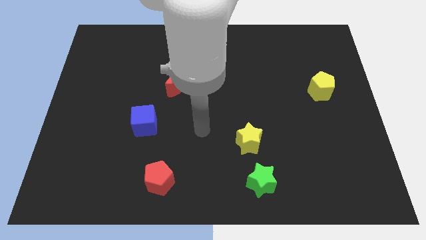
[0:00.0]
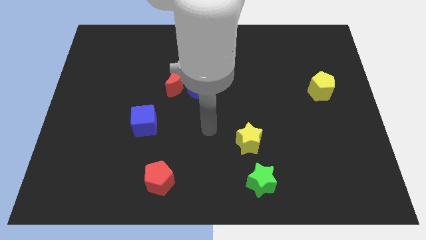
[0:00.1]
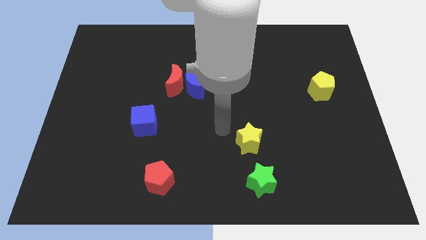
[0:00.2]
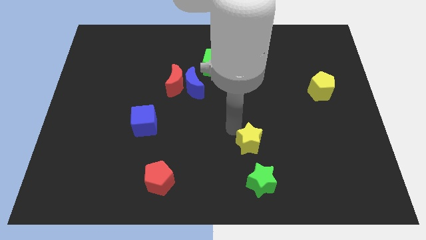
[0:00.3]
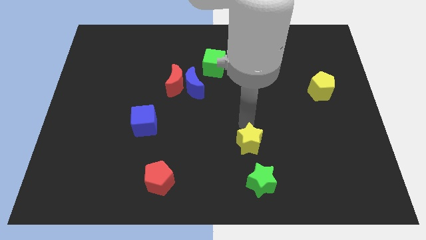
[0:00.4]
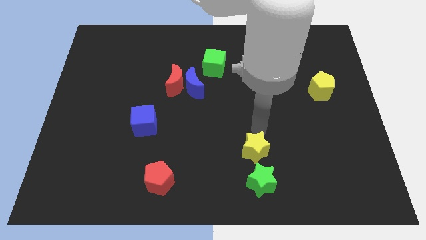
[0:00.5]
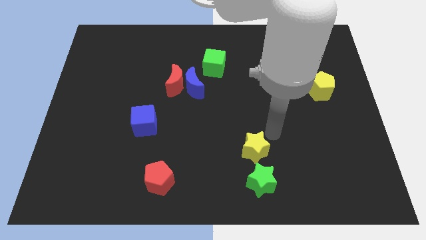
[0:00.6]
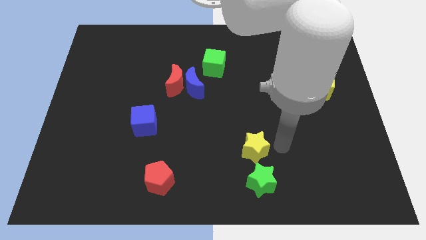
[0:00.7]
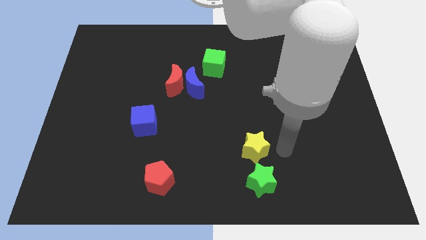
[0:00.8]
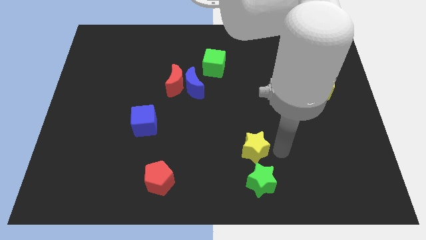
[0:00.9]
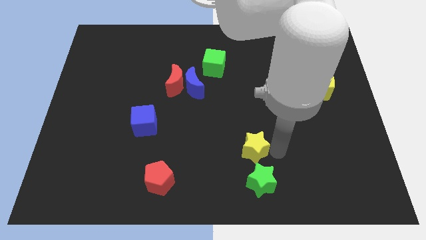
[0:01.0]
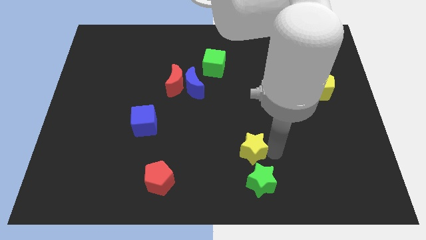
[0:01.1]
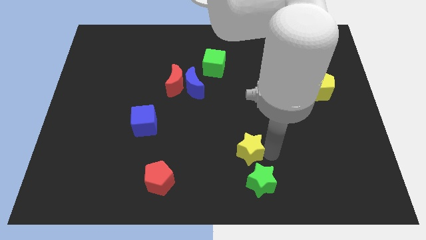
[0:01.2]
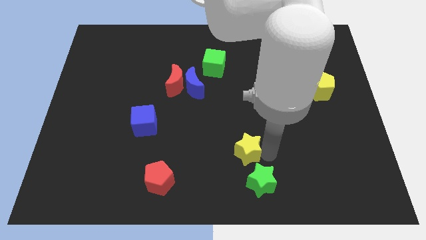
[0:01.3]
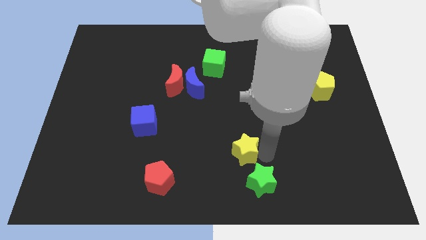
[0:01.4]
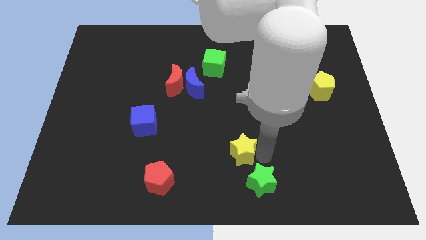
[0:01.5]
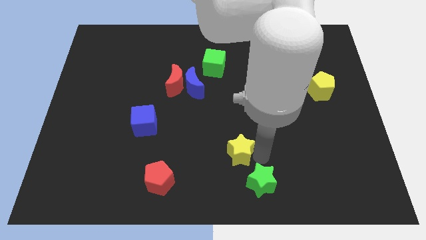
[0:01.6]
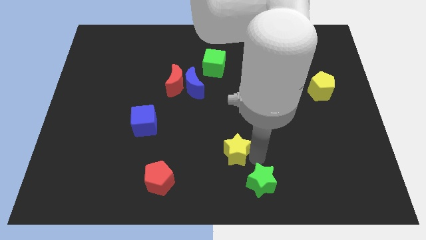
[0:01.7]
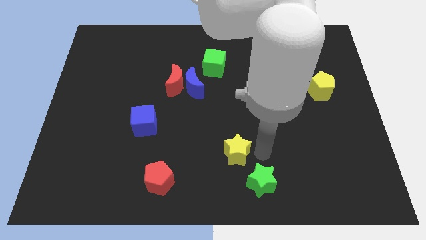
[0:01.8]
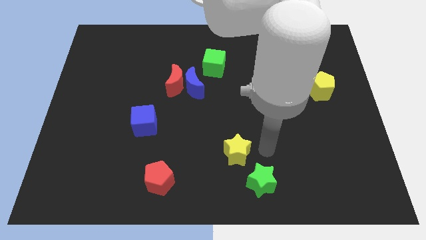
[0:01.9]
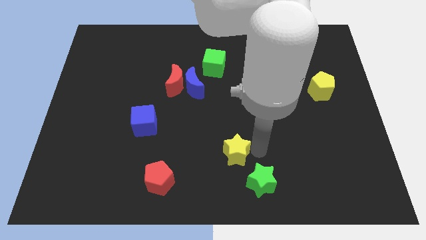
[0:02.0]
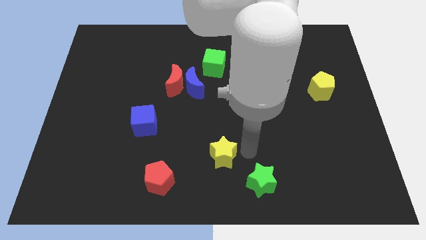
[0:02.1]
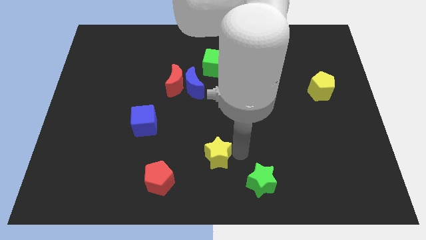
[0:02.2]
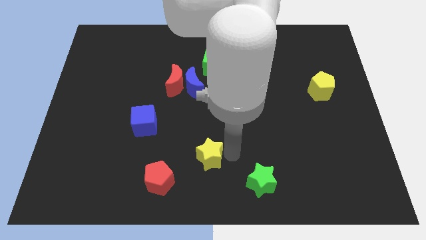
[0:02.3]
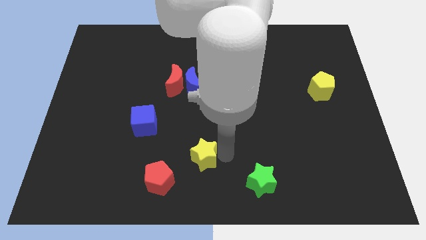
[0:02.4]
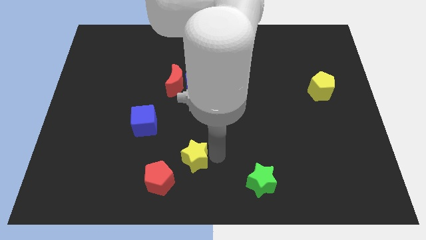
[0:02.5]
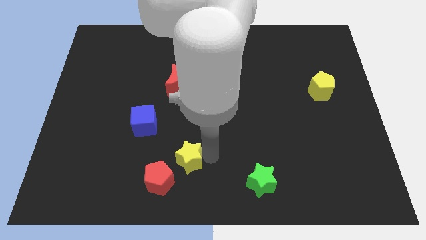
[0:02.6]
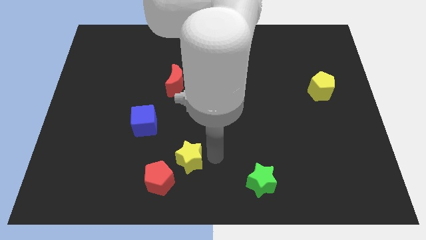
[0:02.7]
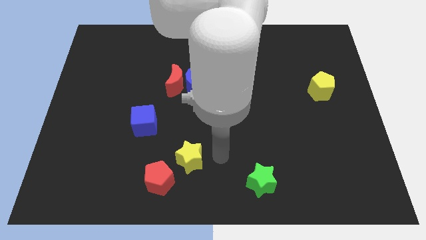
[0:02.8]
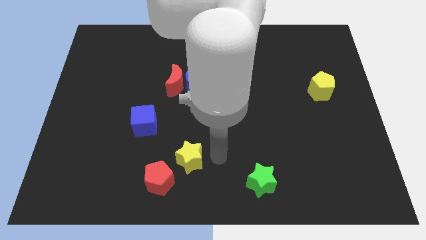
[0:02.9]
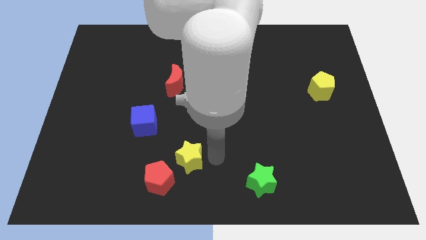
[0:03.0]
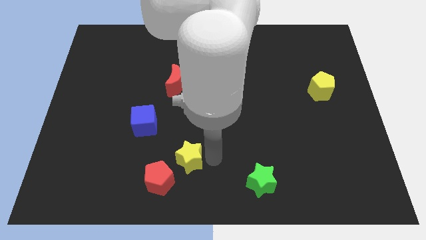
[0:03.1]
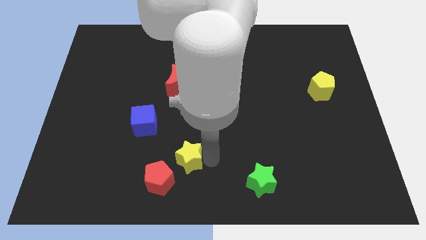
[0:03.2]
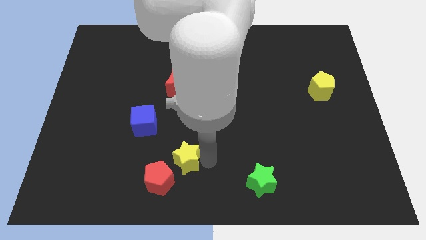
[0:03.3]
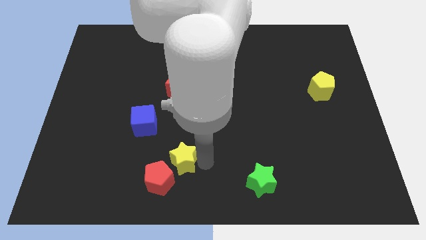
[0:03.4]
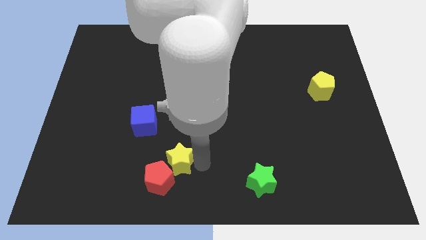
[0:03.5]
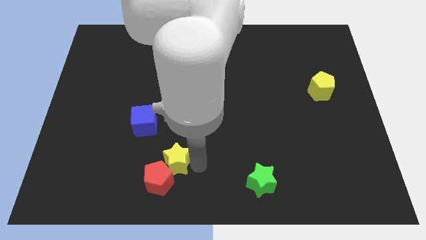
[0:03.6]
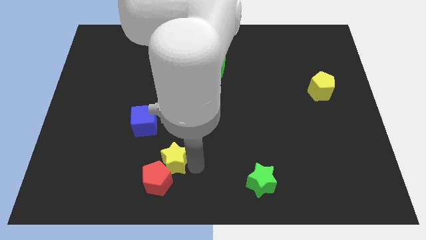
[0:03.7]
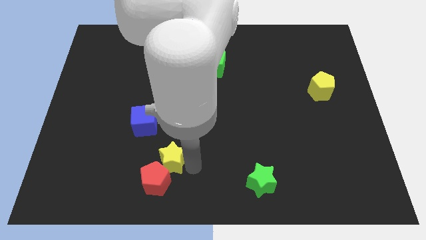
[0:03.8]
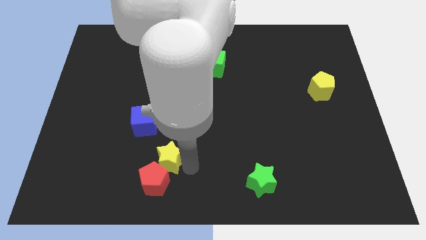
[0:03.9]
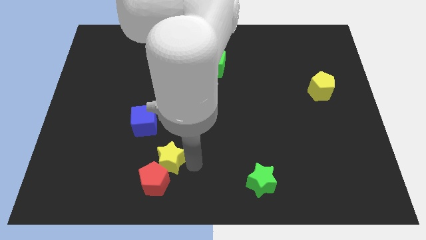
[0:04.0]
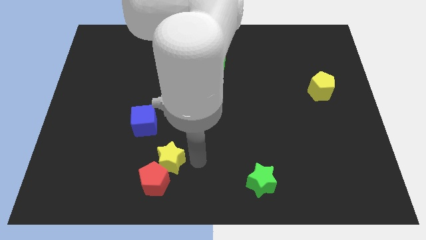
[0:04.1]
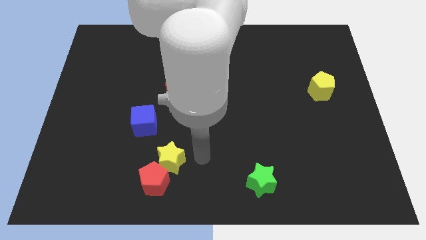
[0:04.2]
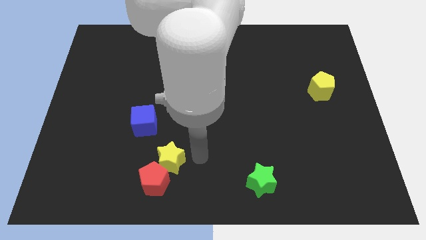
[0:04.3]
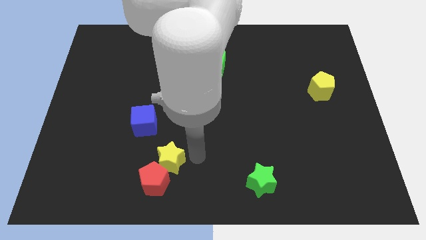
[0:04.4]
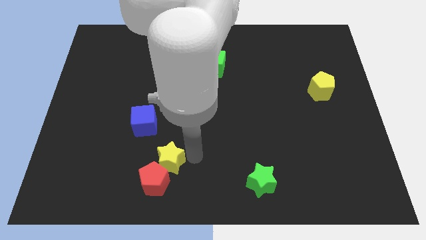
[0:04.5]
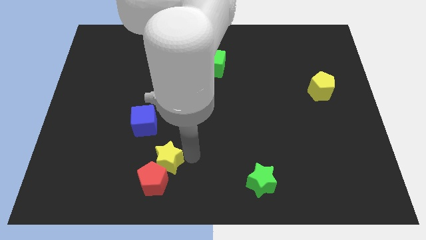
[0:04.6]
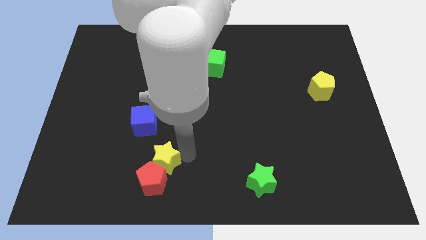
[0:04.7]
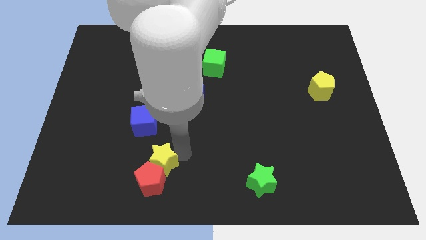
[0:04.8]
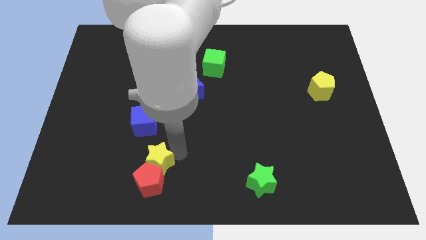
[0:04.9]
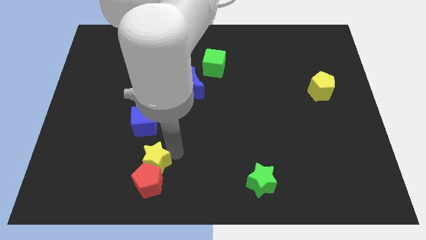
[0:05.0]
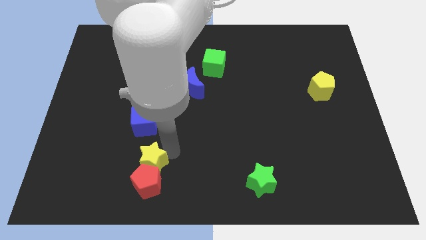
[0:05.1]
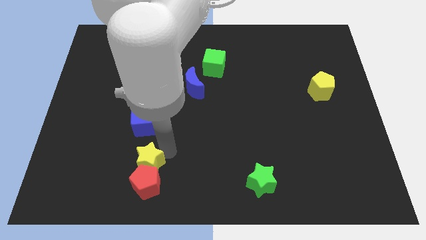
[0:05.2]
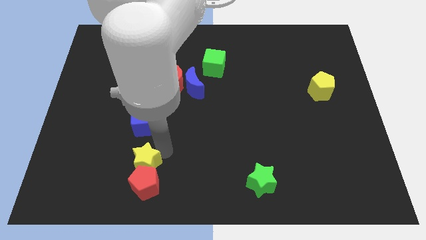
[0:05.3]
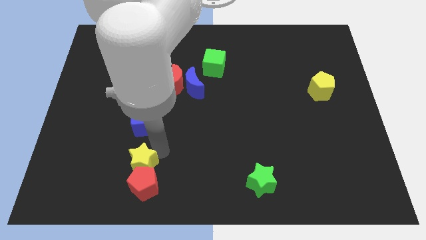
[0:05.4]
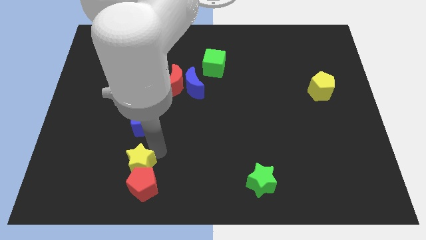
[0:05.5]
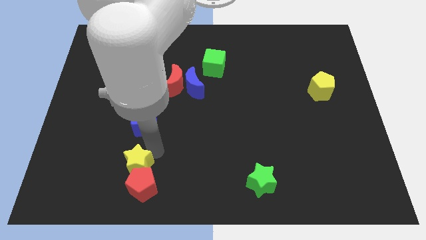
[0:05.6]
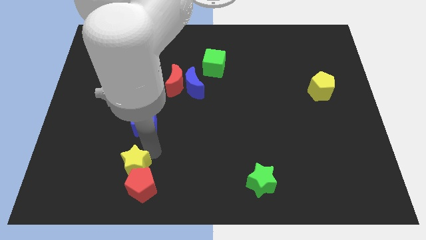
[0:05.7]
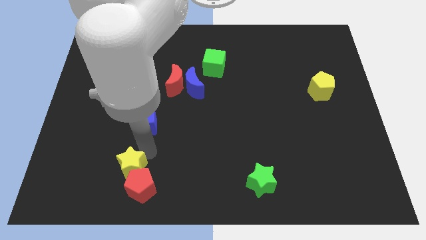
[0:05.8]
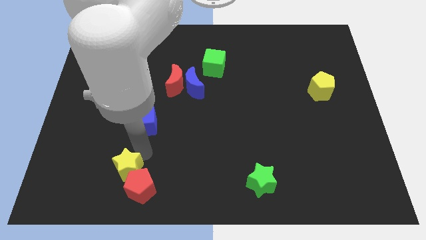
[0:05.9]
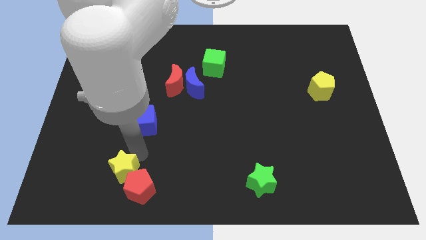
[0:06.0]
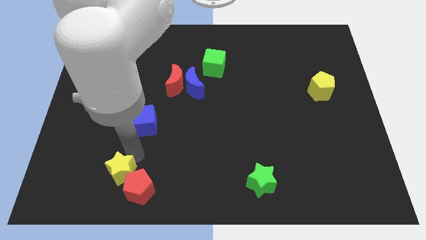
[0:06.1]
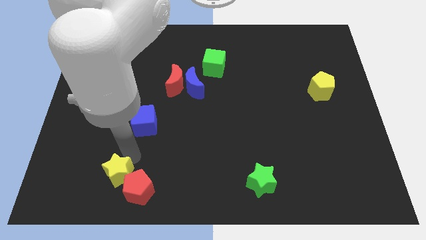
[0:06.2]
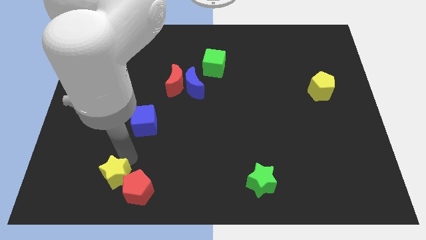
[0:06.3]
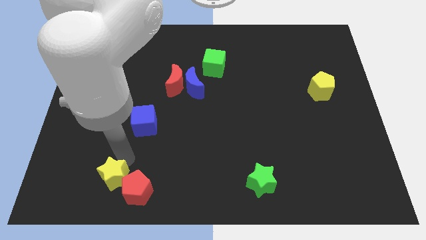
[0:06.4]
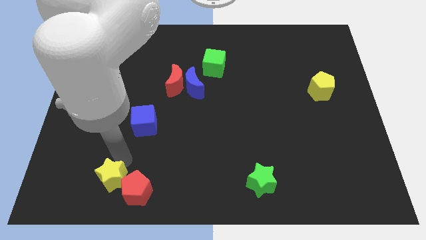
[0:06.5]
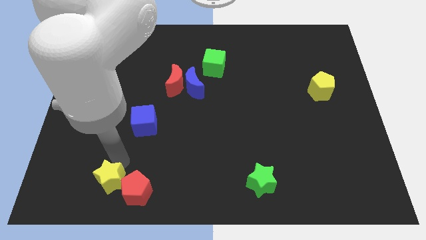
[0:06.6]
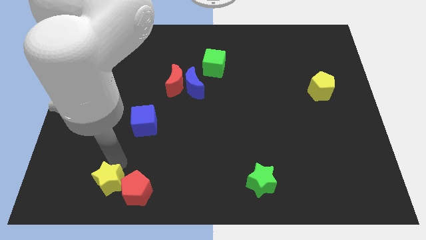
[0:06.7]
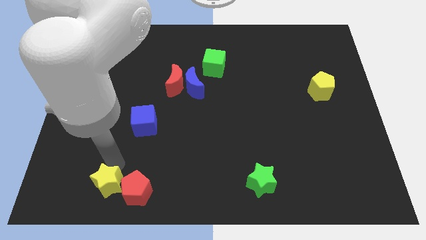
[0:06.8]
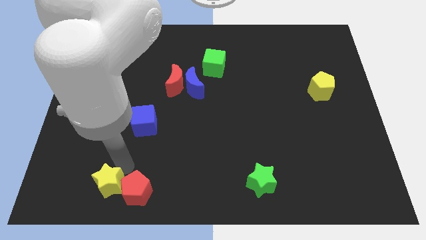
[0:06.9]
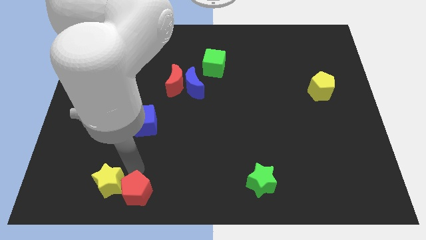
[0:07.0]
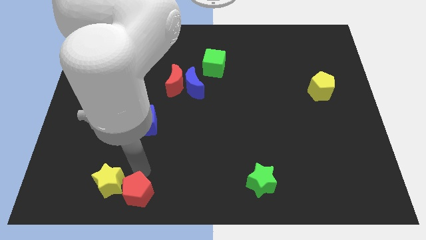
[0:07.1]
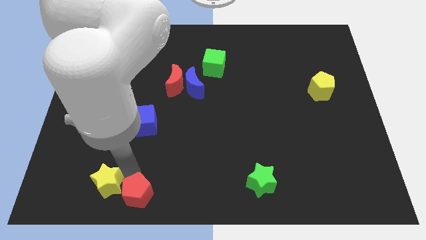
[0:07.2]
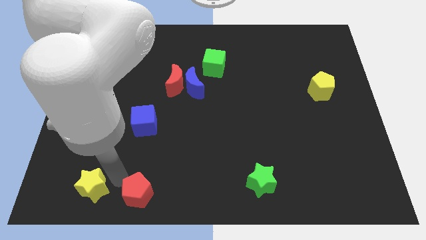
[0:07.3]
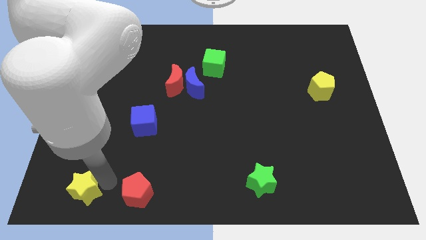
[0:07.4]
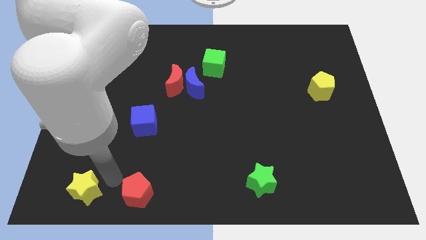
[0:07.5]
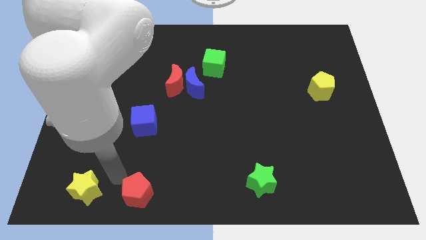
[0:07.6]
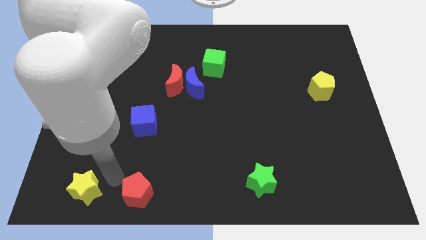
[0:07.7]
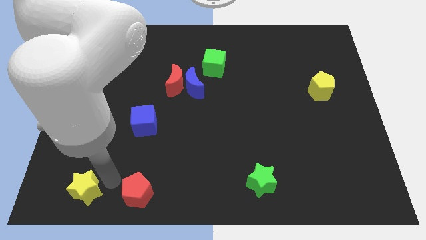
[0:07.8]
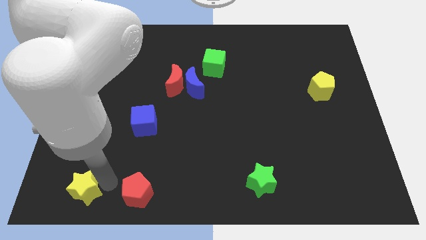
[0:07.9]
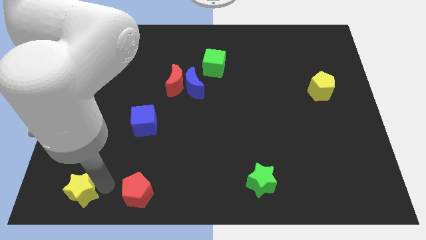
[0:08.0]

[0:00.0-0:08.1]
push the yellow star to the bottom left corner
